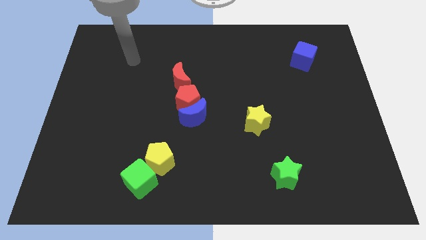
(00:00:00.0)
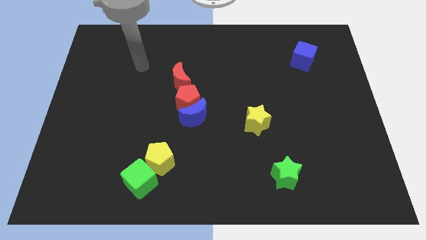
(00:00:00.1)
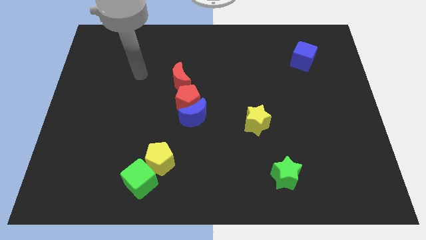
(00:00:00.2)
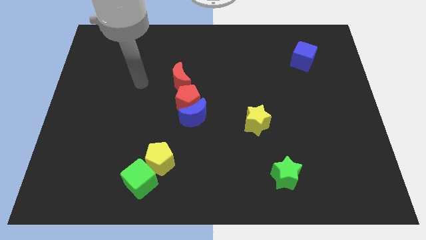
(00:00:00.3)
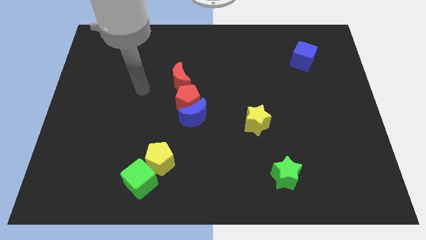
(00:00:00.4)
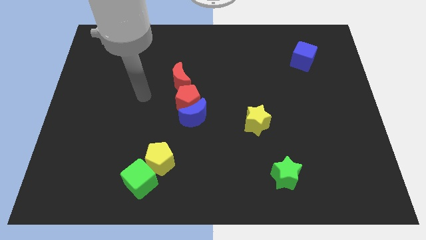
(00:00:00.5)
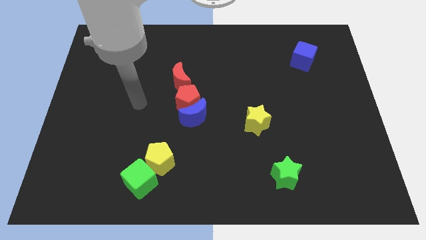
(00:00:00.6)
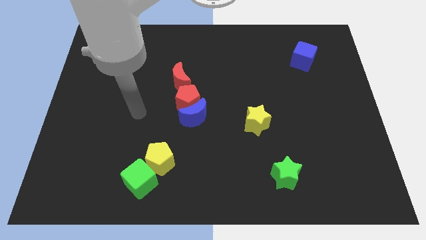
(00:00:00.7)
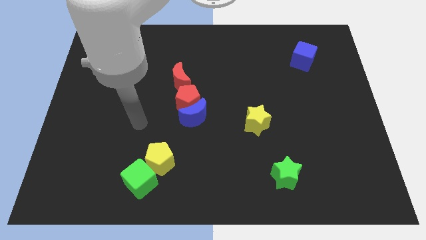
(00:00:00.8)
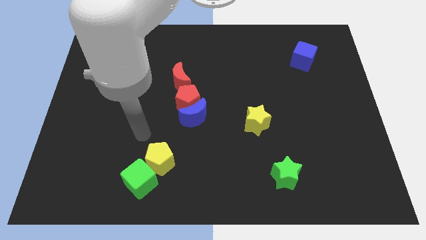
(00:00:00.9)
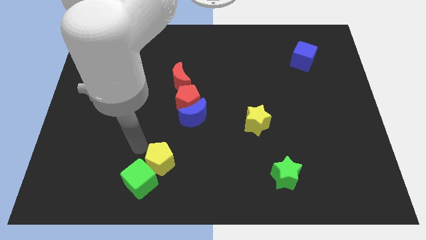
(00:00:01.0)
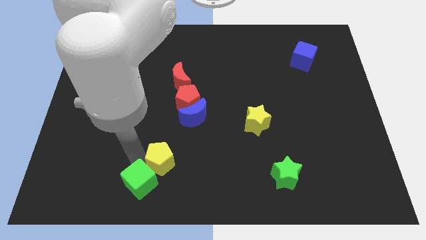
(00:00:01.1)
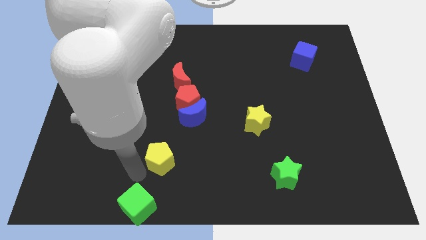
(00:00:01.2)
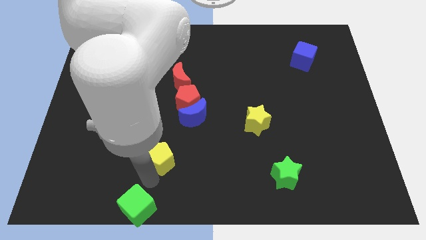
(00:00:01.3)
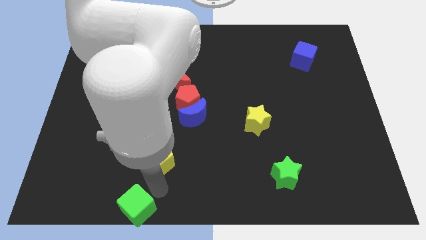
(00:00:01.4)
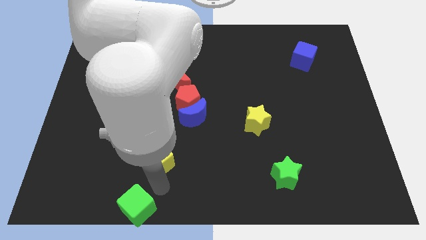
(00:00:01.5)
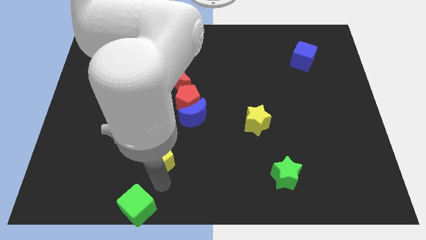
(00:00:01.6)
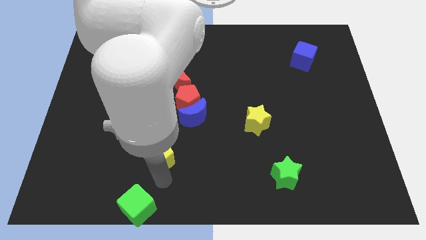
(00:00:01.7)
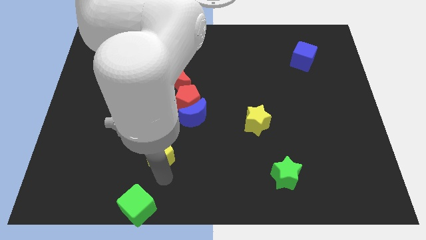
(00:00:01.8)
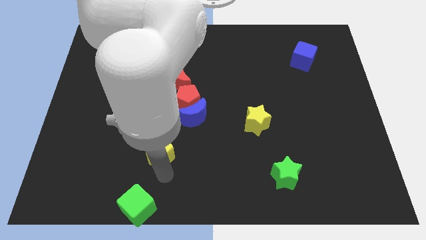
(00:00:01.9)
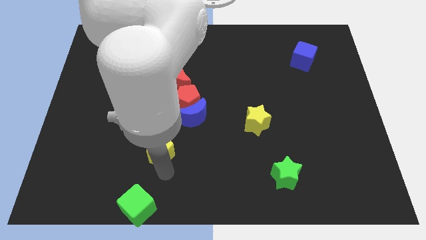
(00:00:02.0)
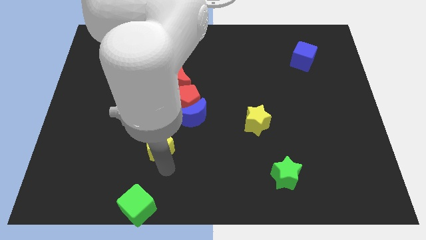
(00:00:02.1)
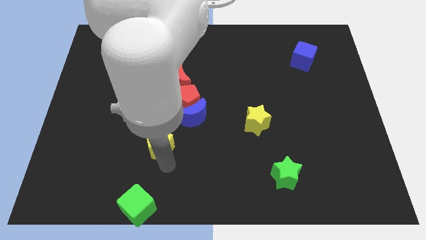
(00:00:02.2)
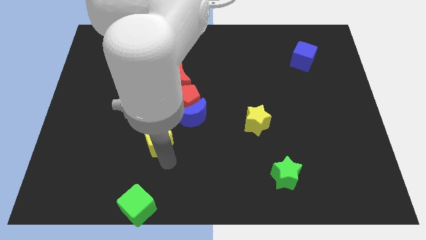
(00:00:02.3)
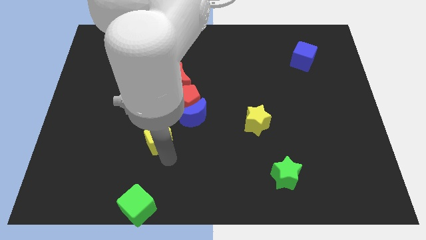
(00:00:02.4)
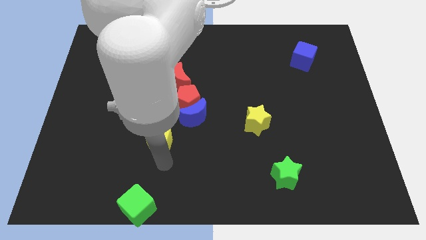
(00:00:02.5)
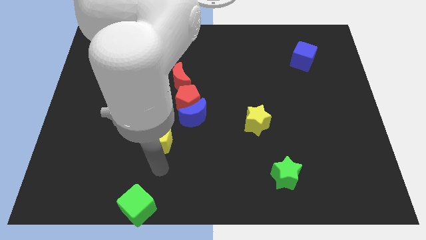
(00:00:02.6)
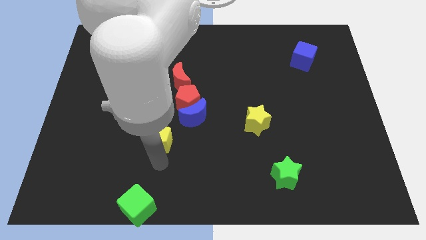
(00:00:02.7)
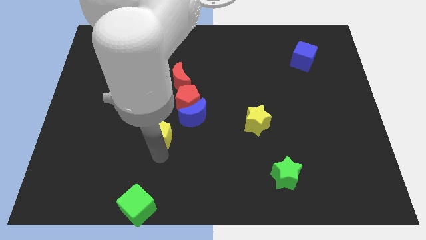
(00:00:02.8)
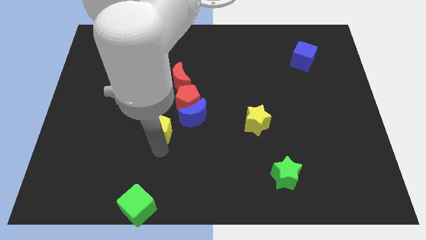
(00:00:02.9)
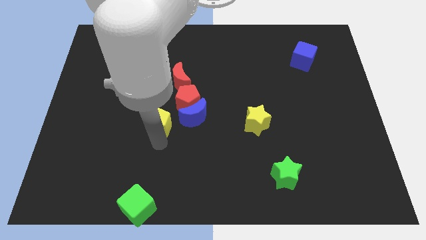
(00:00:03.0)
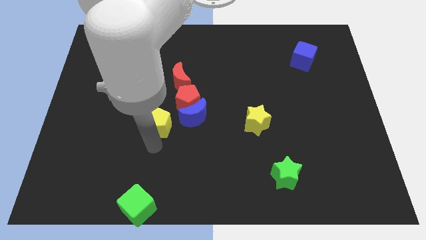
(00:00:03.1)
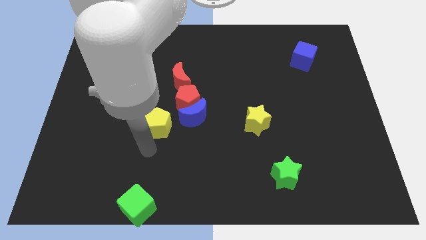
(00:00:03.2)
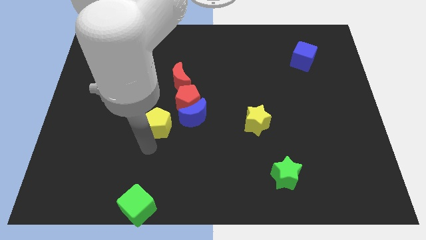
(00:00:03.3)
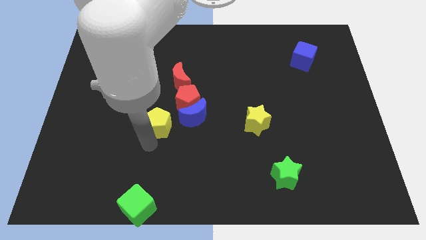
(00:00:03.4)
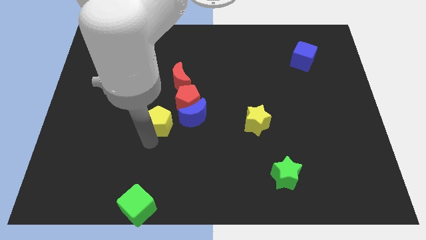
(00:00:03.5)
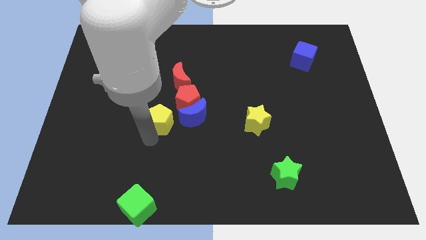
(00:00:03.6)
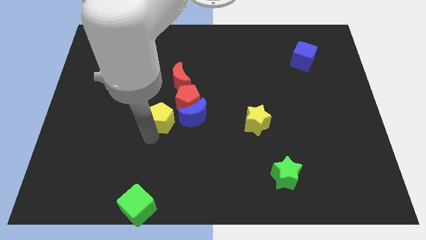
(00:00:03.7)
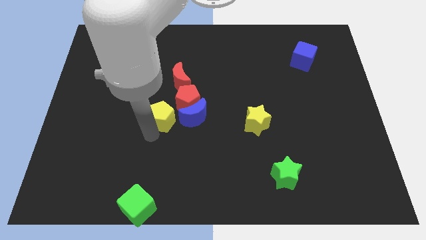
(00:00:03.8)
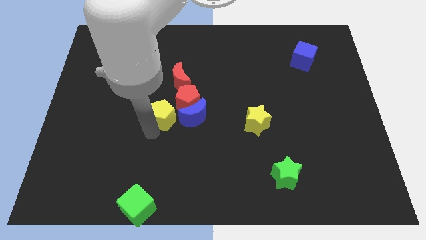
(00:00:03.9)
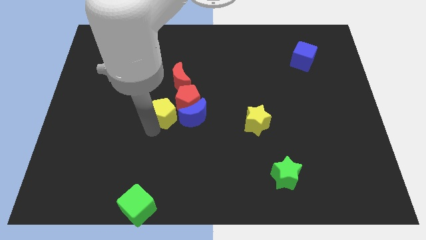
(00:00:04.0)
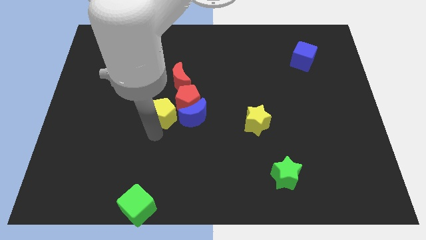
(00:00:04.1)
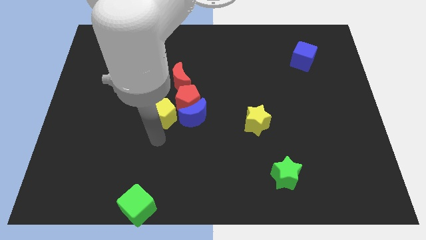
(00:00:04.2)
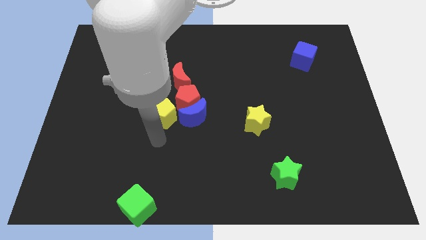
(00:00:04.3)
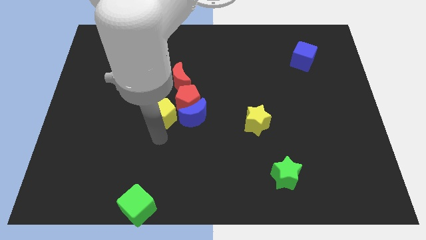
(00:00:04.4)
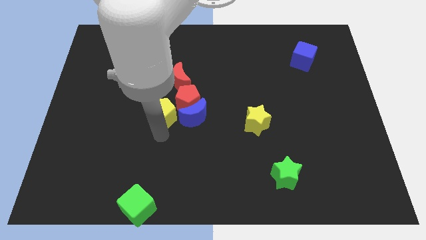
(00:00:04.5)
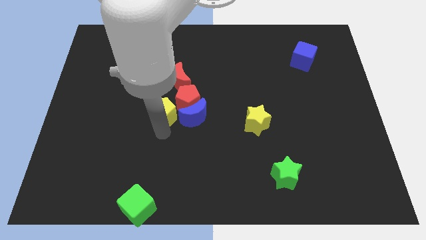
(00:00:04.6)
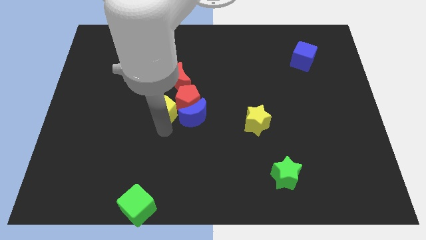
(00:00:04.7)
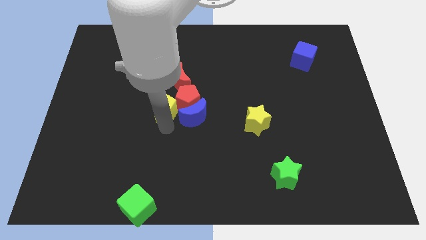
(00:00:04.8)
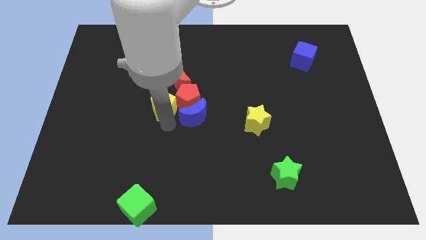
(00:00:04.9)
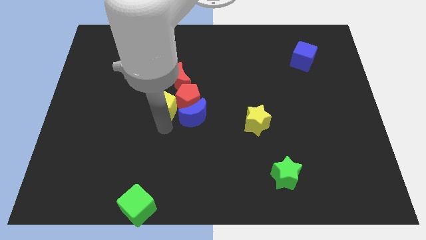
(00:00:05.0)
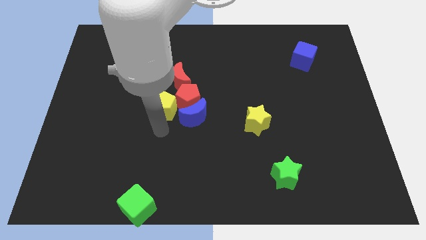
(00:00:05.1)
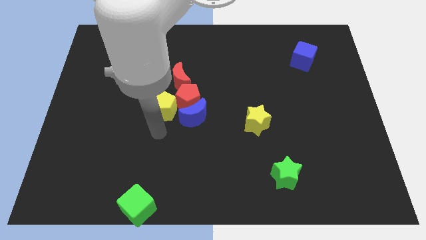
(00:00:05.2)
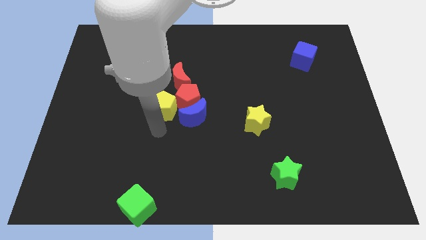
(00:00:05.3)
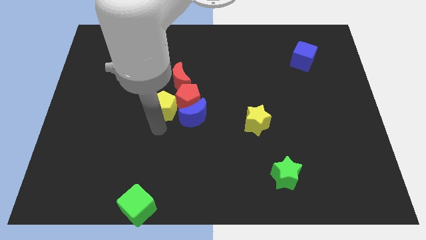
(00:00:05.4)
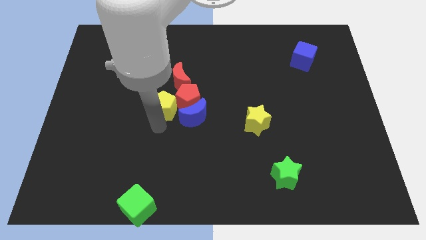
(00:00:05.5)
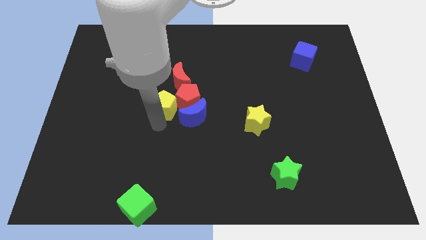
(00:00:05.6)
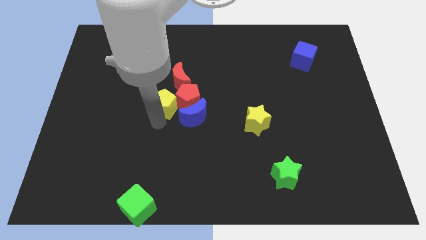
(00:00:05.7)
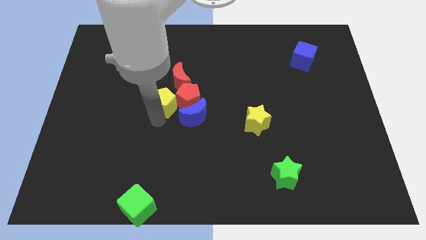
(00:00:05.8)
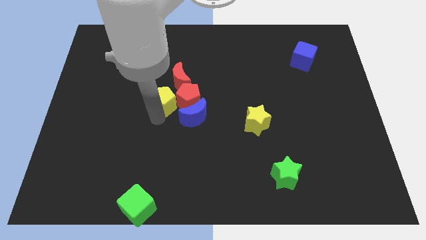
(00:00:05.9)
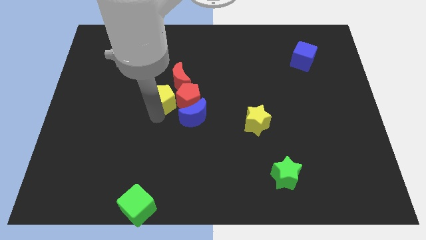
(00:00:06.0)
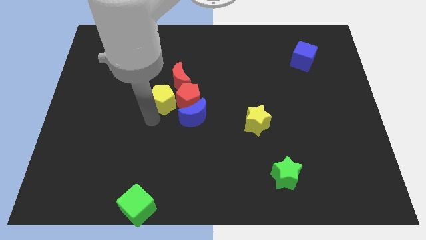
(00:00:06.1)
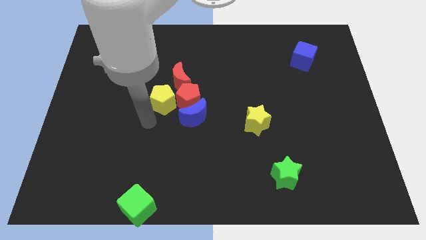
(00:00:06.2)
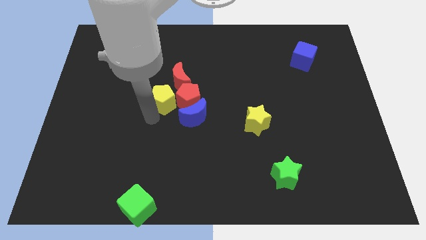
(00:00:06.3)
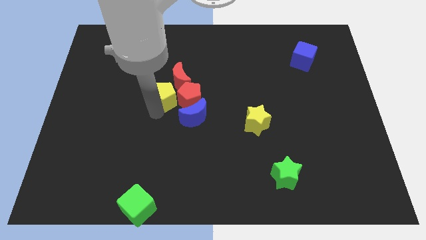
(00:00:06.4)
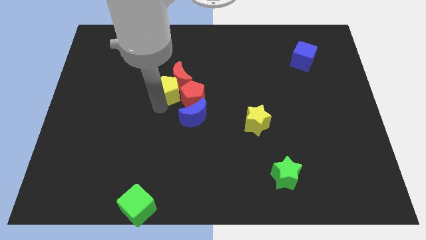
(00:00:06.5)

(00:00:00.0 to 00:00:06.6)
push the yellow pentagon to the red moon

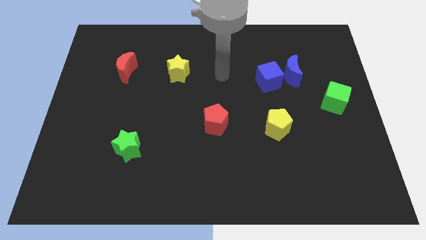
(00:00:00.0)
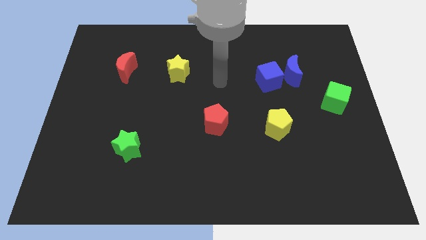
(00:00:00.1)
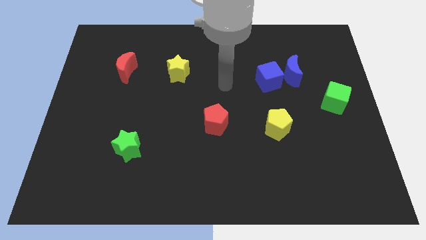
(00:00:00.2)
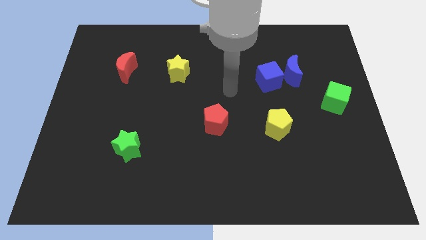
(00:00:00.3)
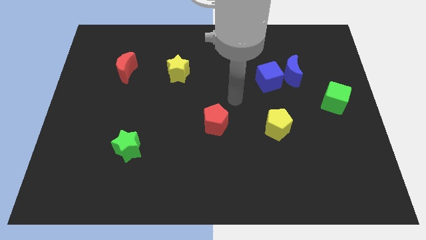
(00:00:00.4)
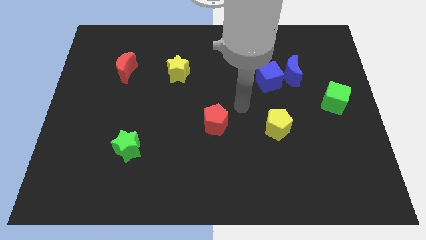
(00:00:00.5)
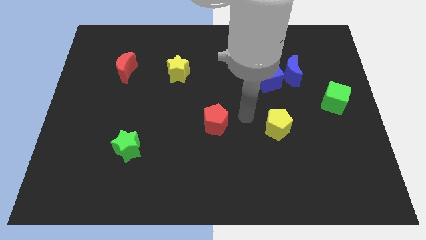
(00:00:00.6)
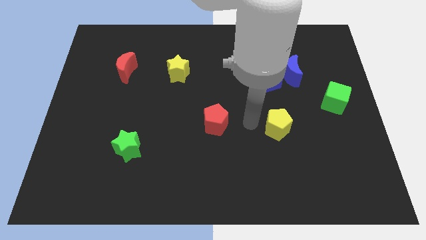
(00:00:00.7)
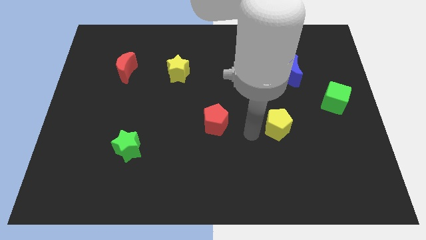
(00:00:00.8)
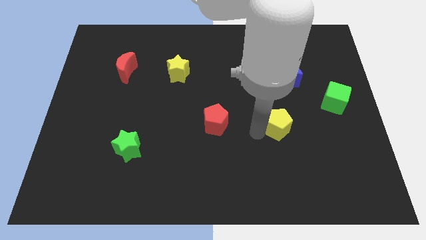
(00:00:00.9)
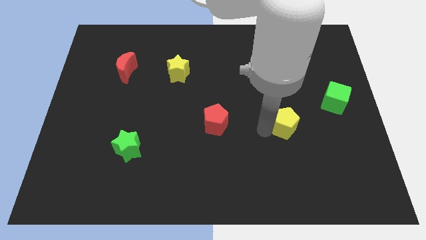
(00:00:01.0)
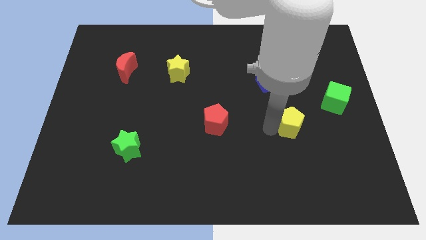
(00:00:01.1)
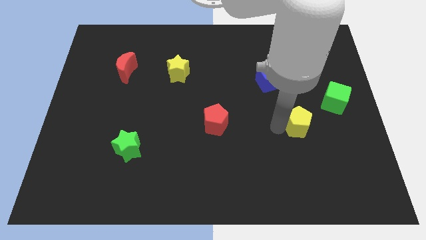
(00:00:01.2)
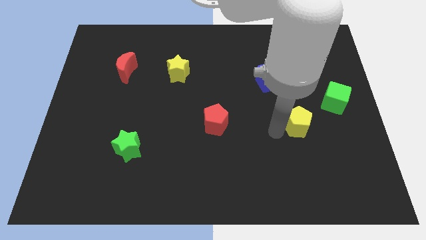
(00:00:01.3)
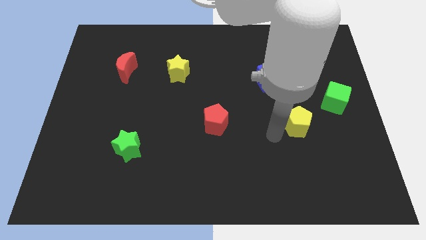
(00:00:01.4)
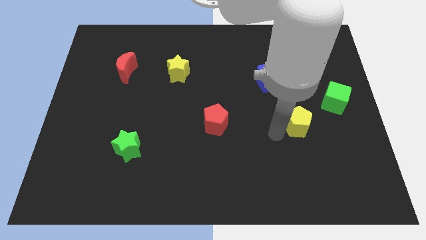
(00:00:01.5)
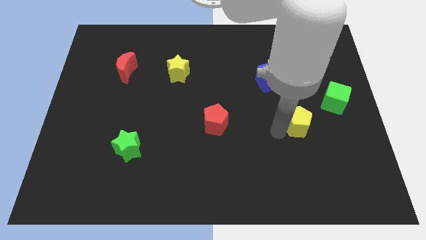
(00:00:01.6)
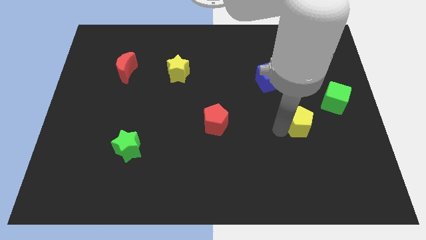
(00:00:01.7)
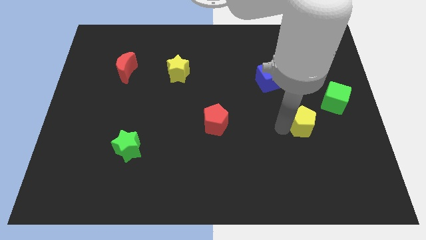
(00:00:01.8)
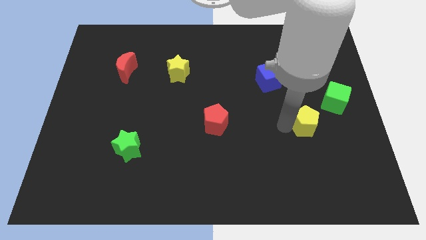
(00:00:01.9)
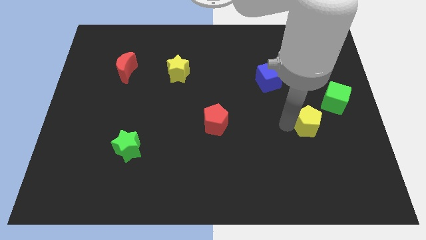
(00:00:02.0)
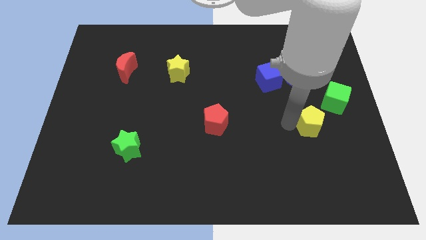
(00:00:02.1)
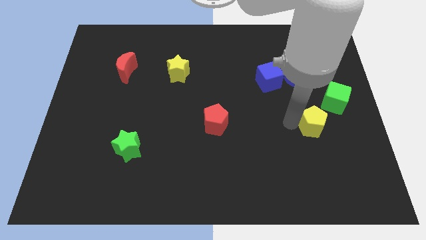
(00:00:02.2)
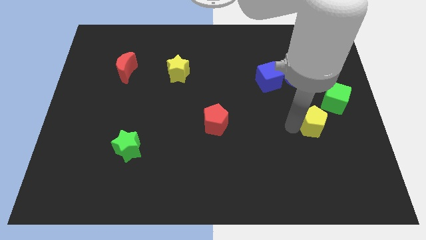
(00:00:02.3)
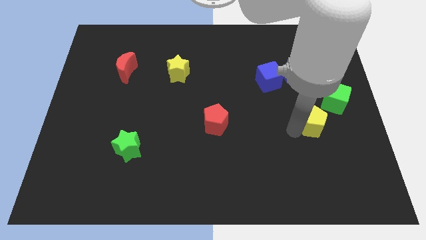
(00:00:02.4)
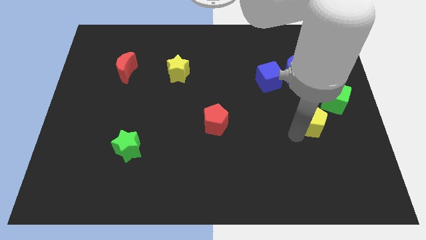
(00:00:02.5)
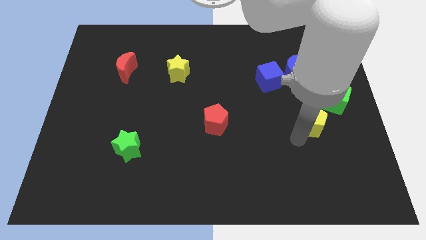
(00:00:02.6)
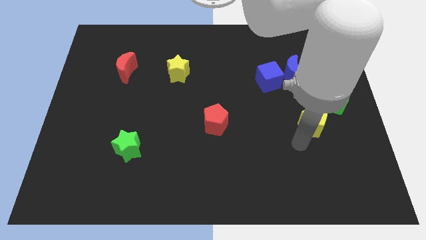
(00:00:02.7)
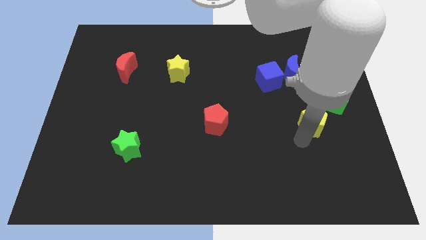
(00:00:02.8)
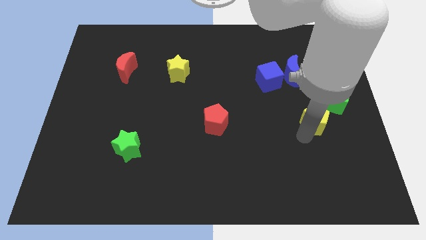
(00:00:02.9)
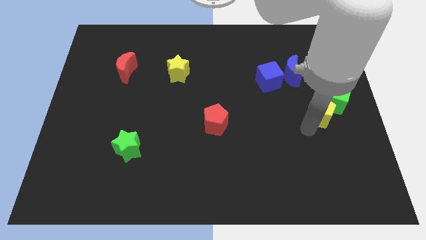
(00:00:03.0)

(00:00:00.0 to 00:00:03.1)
move the yellow pentagon close to the green cube
